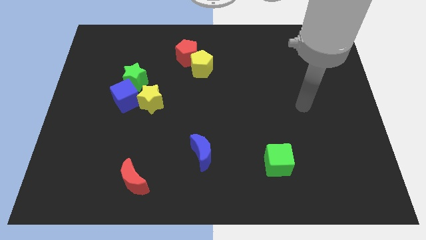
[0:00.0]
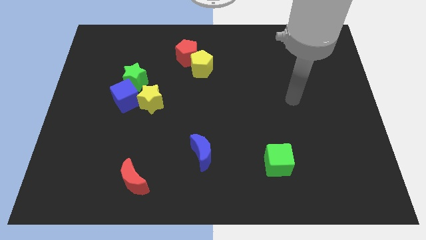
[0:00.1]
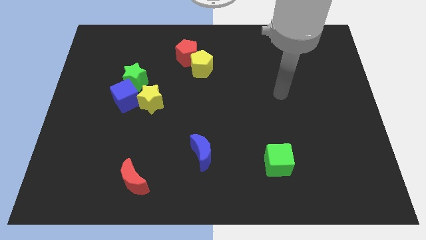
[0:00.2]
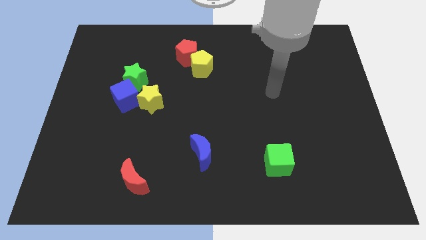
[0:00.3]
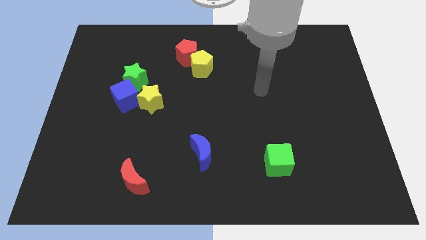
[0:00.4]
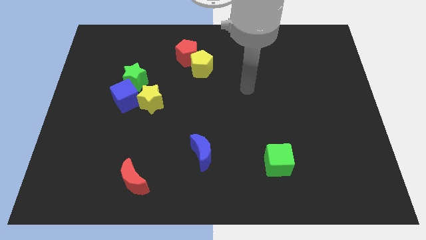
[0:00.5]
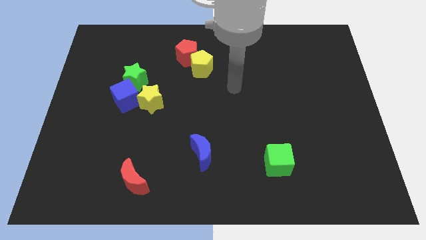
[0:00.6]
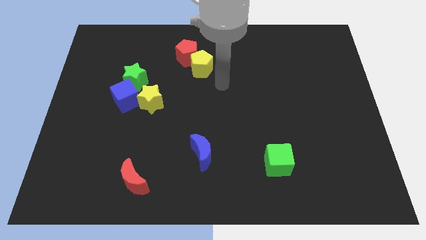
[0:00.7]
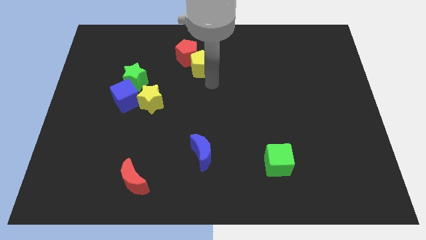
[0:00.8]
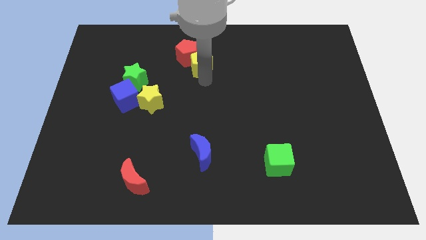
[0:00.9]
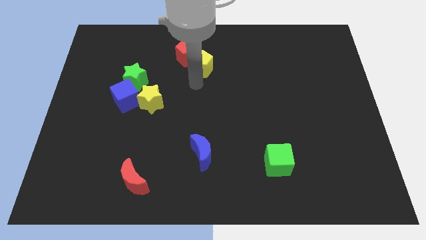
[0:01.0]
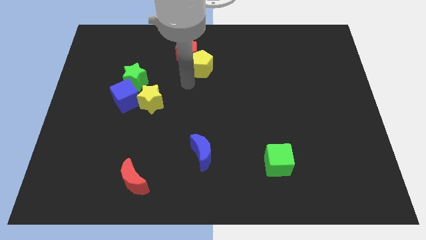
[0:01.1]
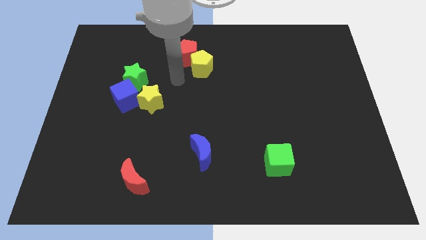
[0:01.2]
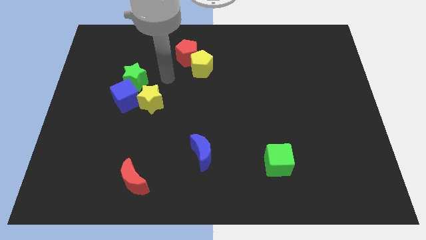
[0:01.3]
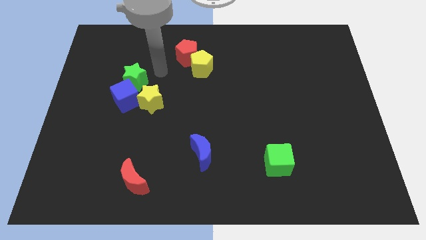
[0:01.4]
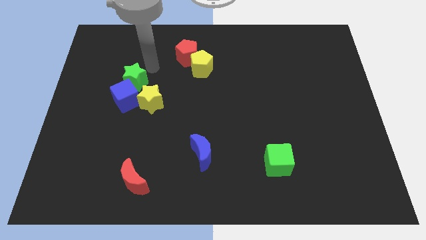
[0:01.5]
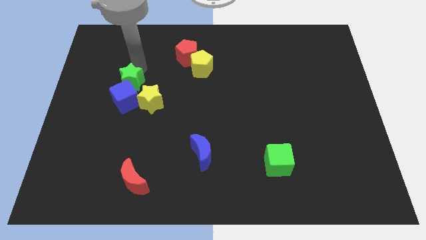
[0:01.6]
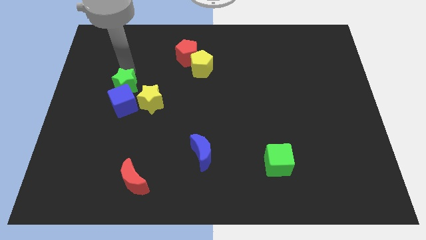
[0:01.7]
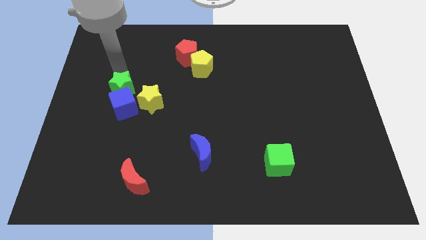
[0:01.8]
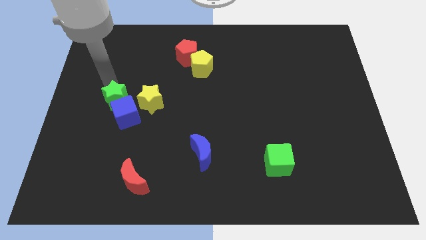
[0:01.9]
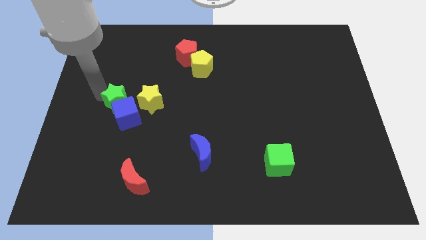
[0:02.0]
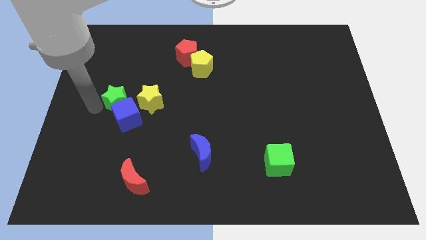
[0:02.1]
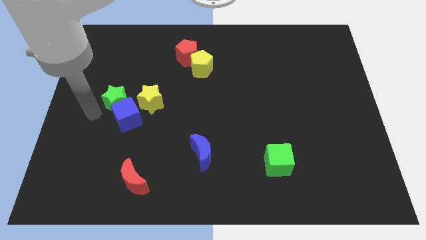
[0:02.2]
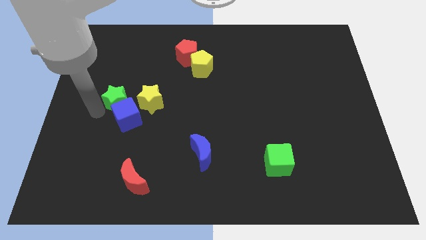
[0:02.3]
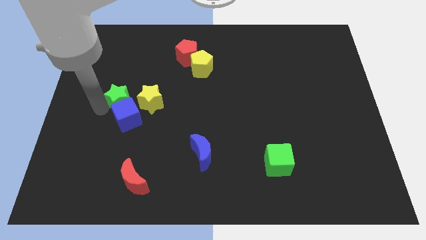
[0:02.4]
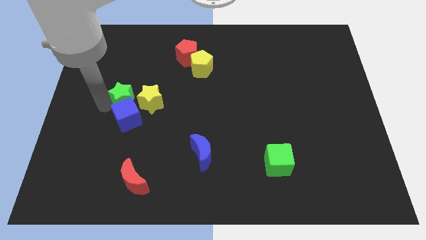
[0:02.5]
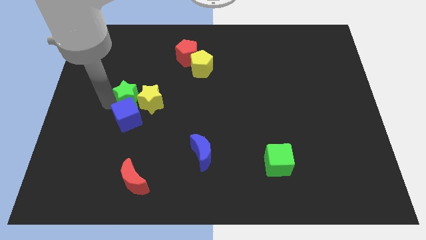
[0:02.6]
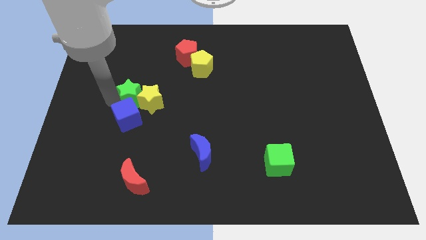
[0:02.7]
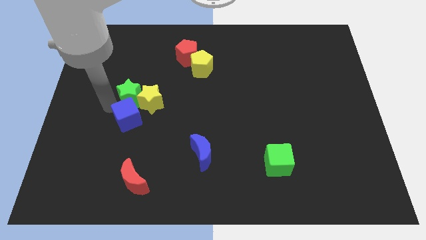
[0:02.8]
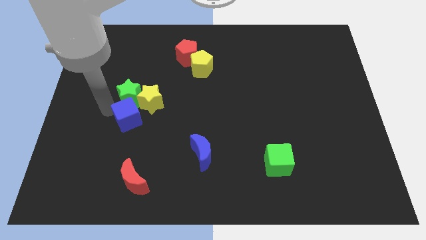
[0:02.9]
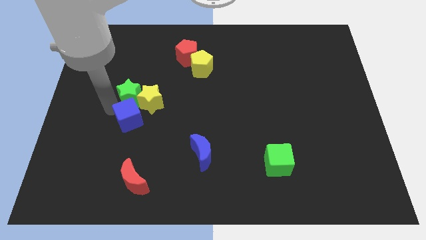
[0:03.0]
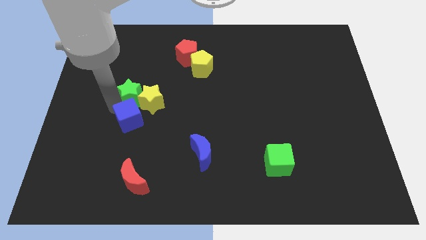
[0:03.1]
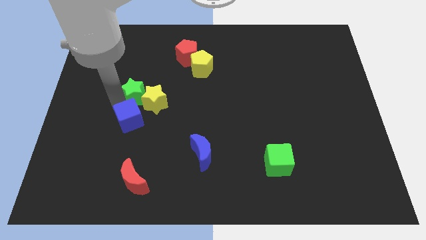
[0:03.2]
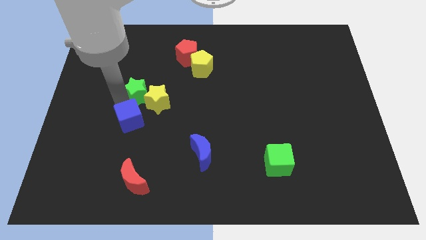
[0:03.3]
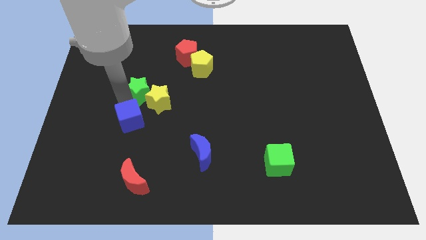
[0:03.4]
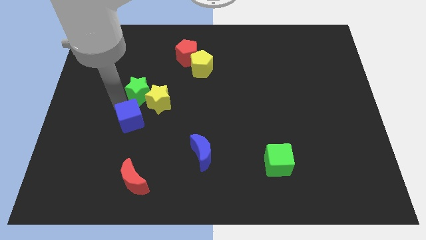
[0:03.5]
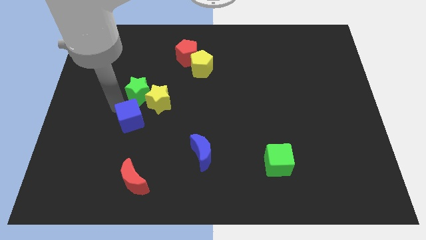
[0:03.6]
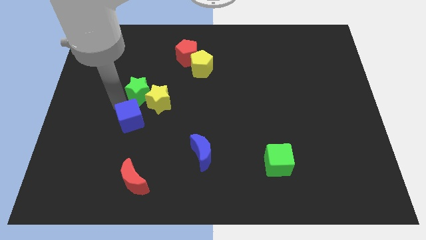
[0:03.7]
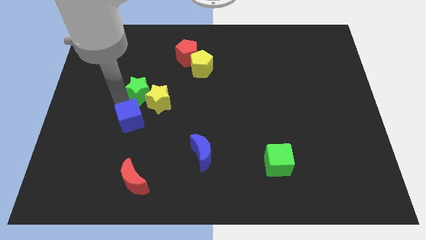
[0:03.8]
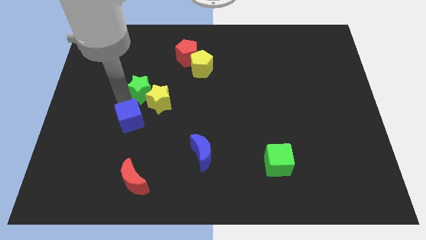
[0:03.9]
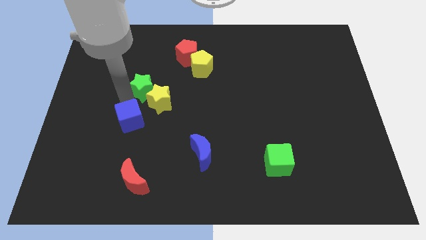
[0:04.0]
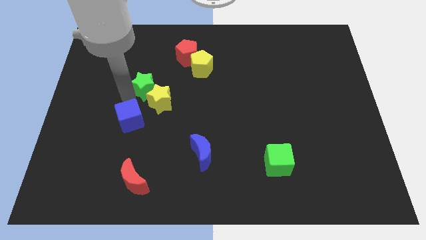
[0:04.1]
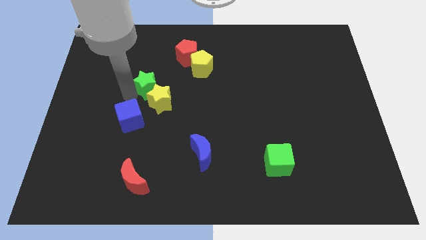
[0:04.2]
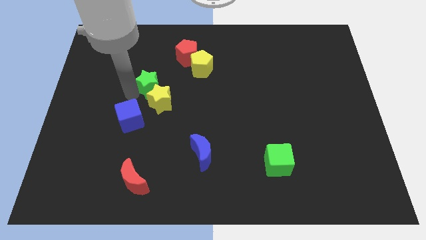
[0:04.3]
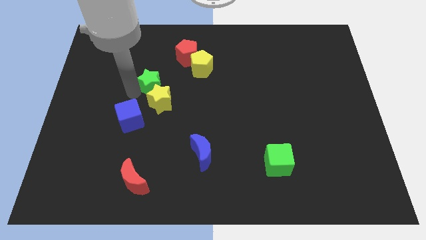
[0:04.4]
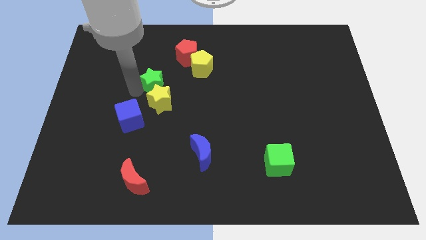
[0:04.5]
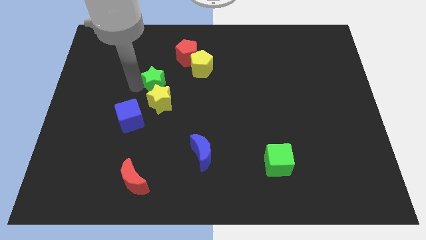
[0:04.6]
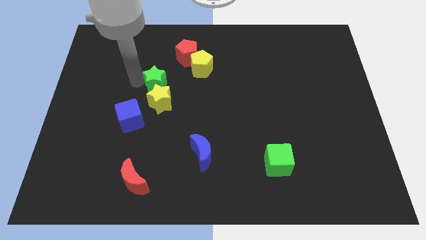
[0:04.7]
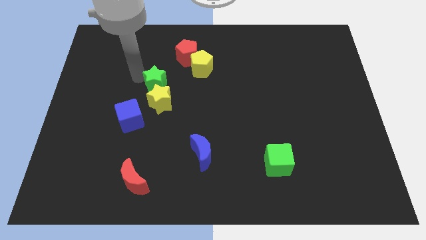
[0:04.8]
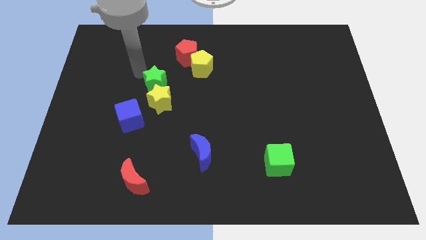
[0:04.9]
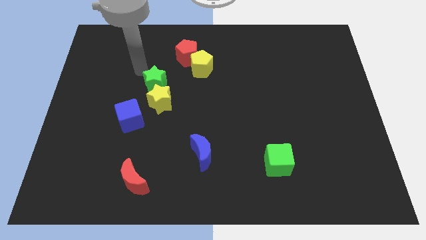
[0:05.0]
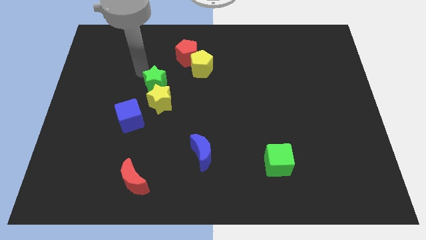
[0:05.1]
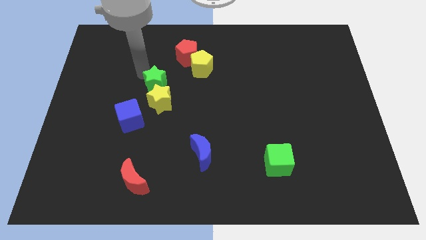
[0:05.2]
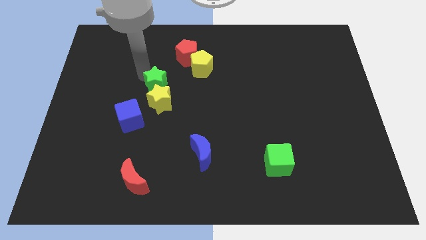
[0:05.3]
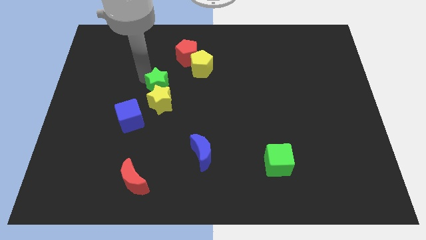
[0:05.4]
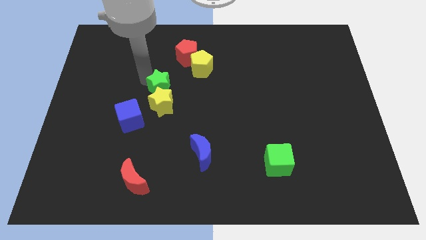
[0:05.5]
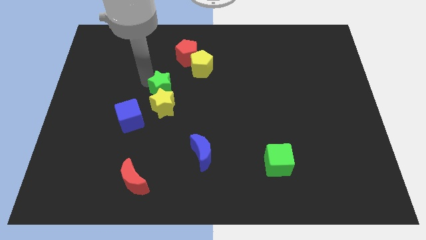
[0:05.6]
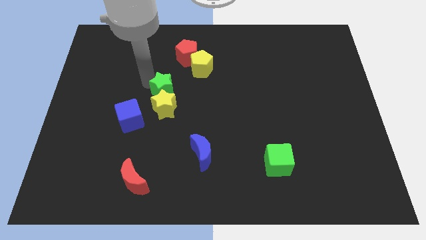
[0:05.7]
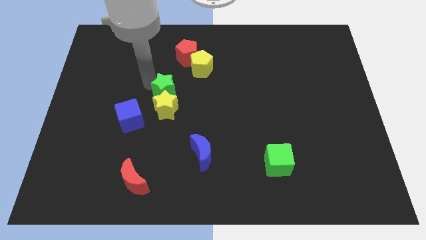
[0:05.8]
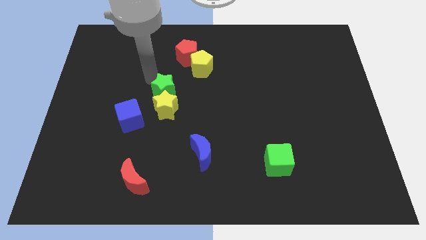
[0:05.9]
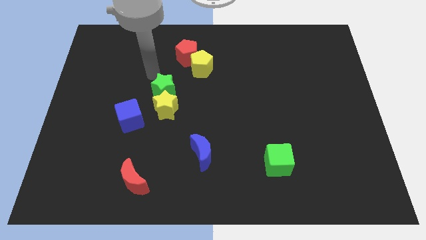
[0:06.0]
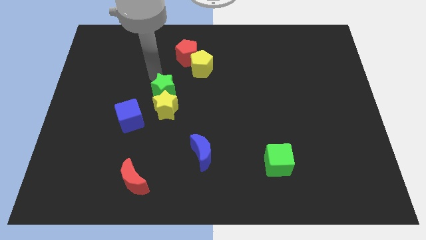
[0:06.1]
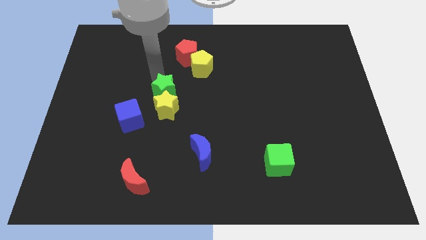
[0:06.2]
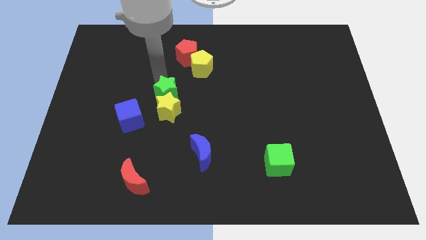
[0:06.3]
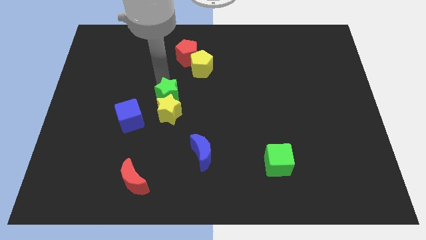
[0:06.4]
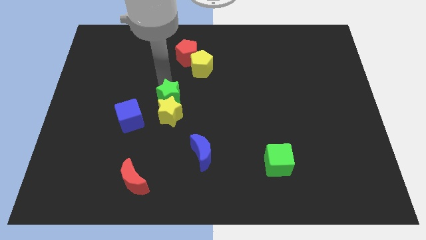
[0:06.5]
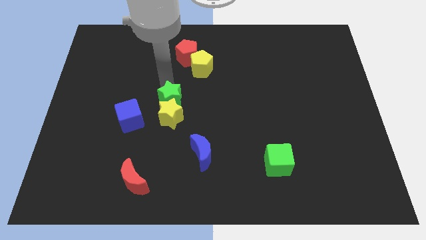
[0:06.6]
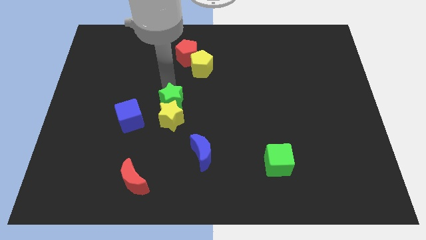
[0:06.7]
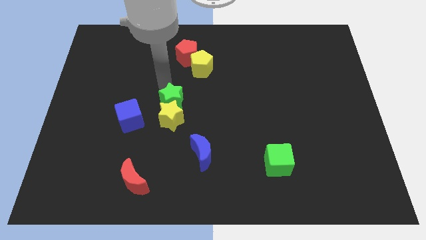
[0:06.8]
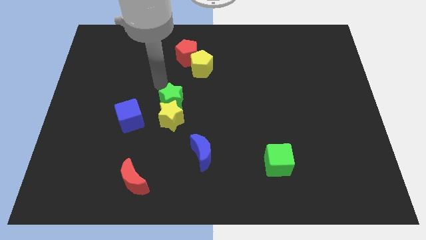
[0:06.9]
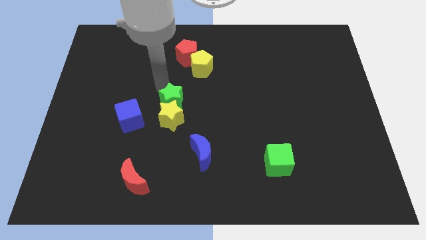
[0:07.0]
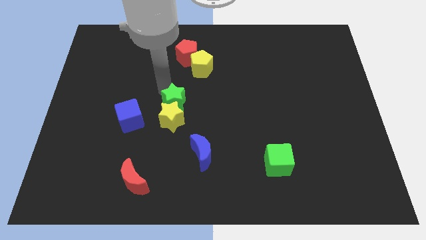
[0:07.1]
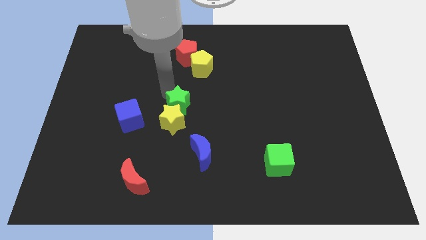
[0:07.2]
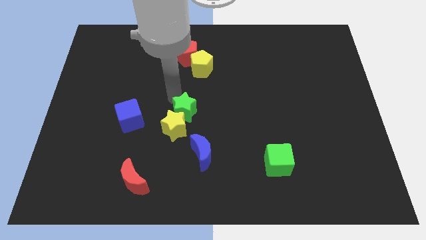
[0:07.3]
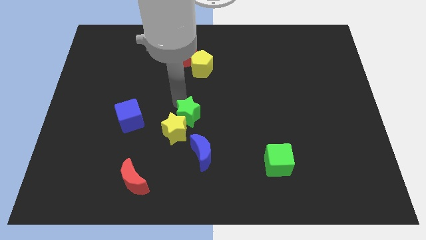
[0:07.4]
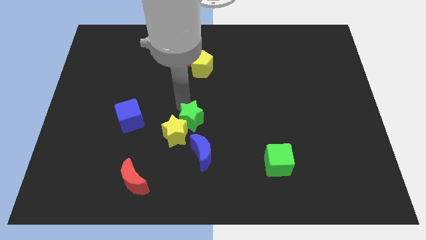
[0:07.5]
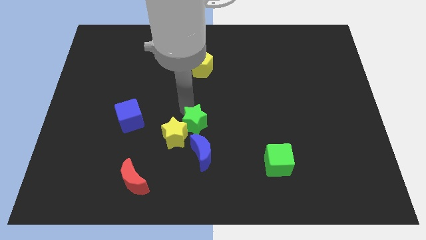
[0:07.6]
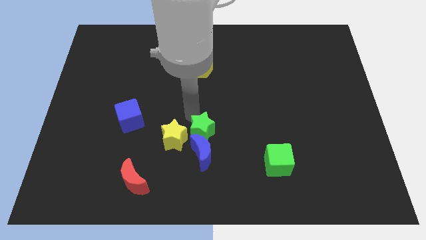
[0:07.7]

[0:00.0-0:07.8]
slide the green star to the blue moon
